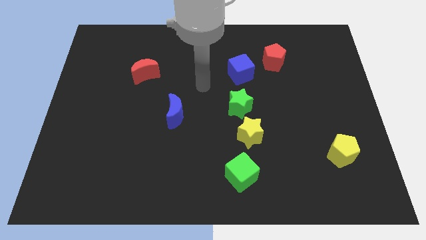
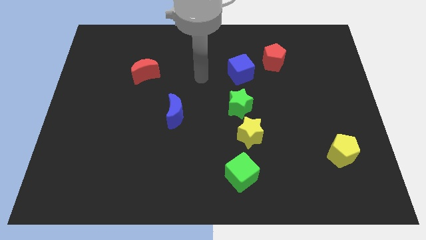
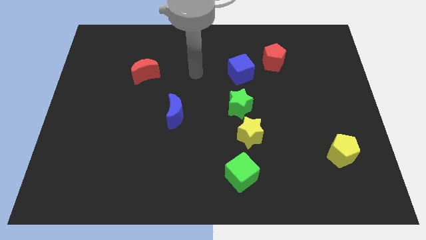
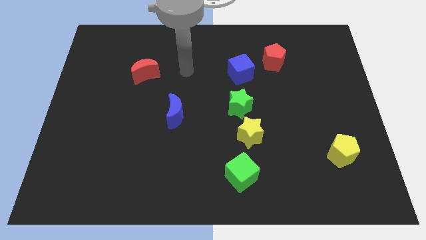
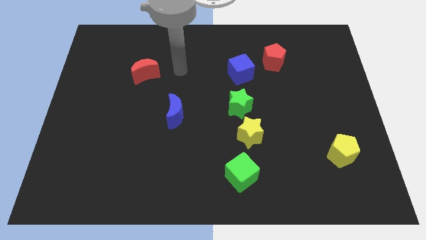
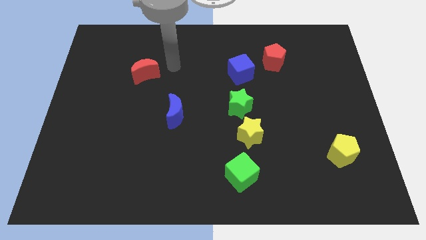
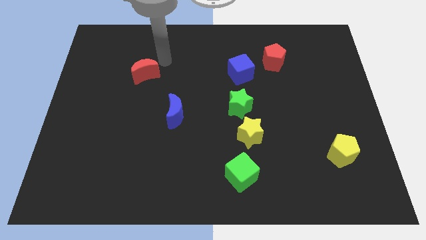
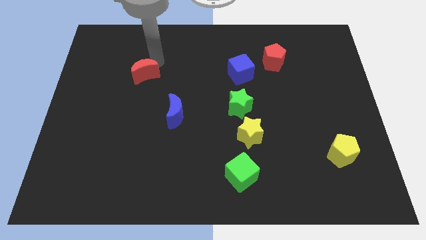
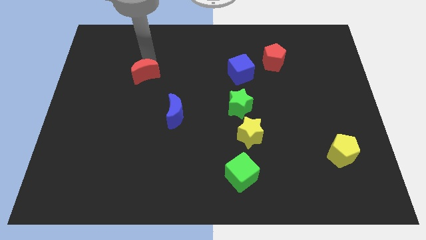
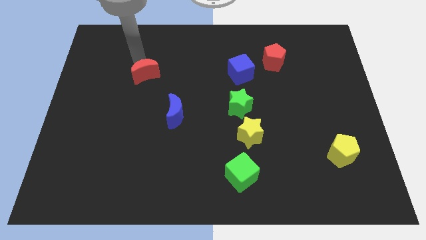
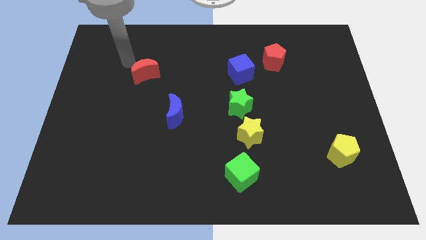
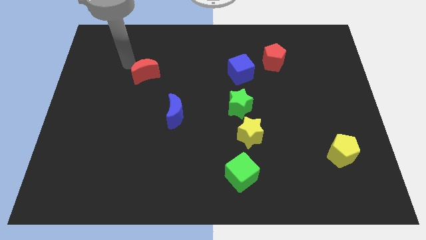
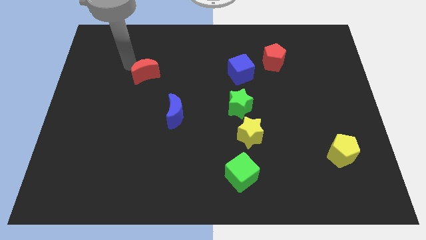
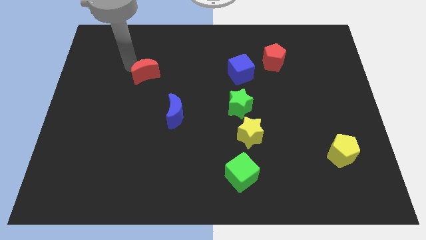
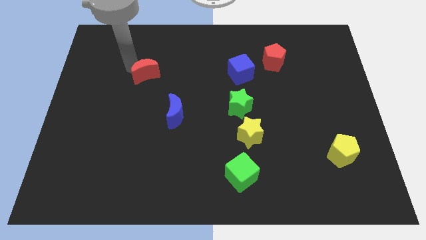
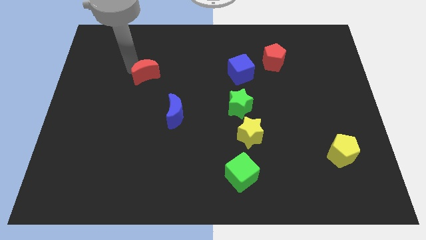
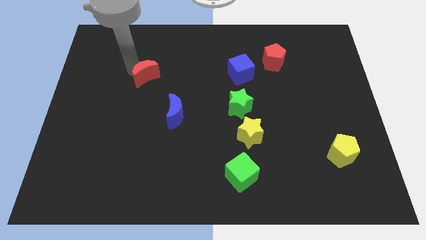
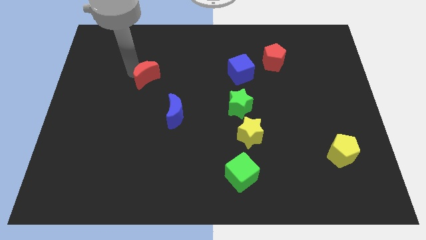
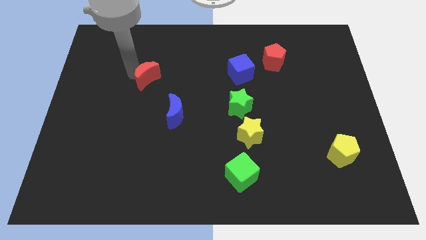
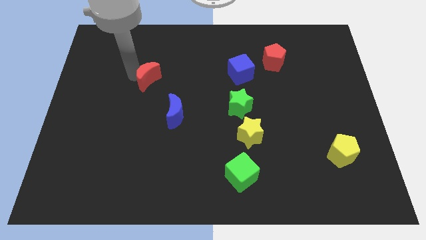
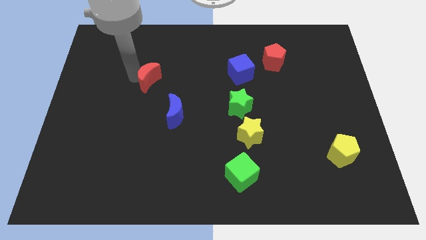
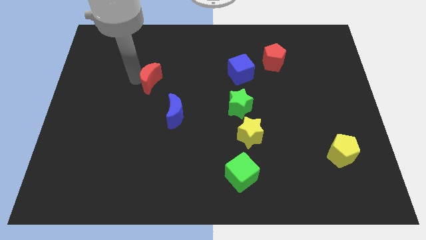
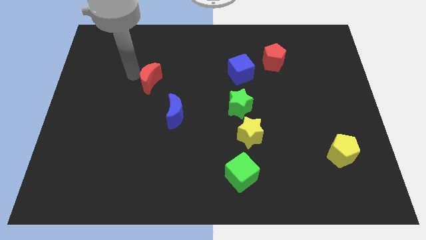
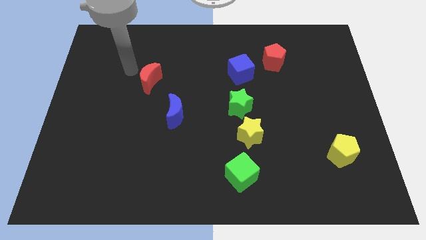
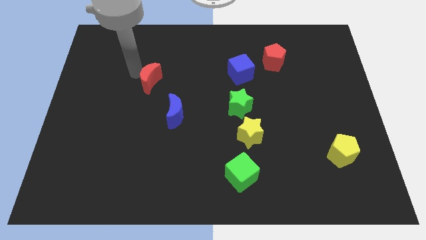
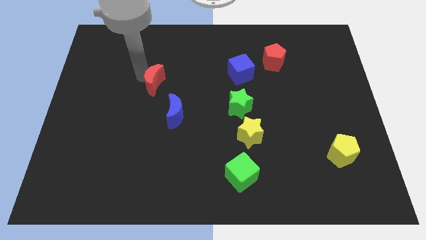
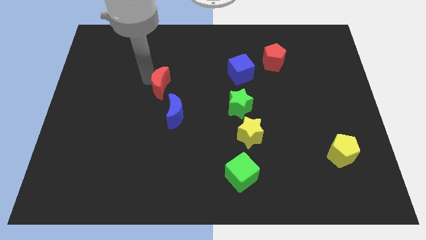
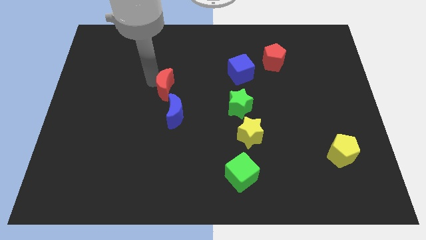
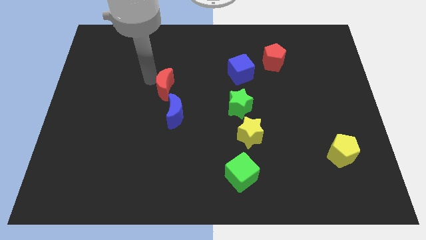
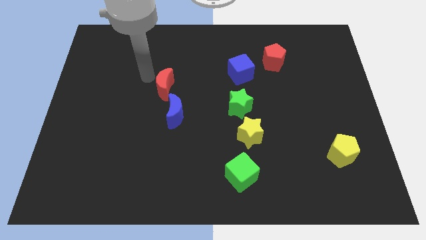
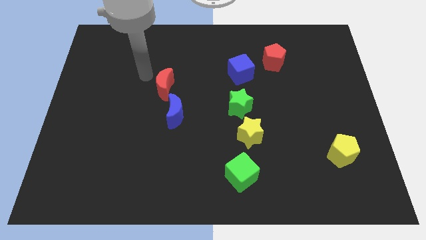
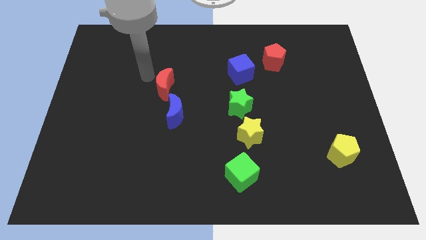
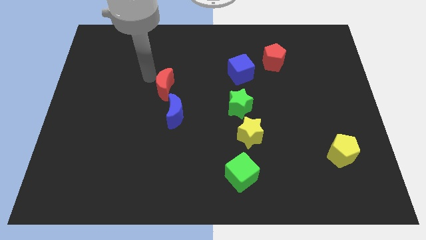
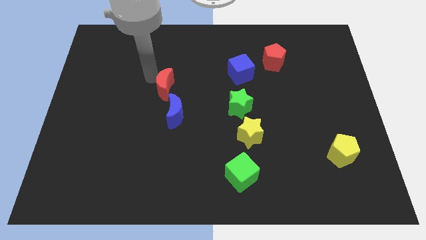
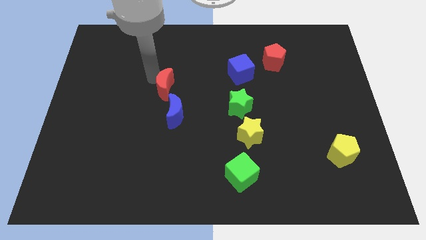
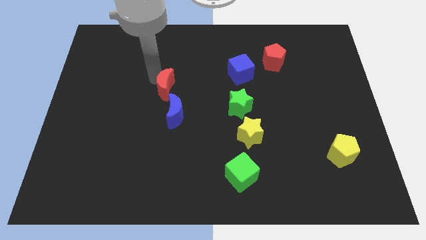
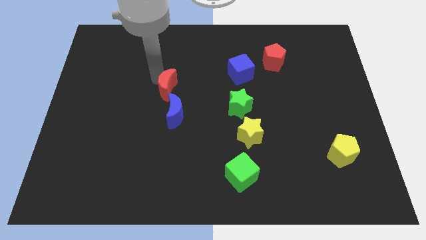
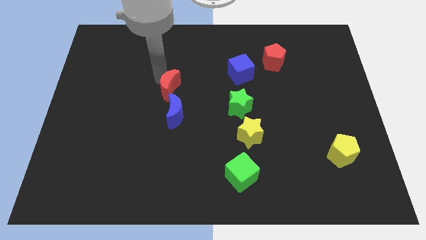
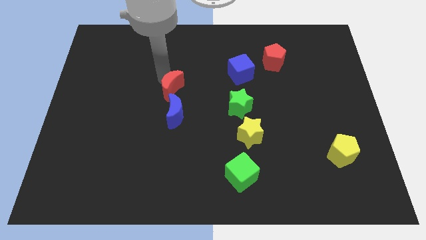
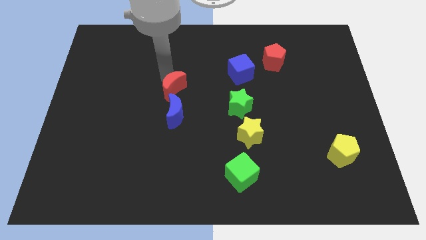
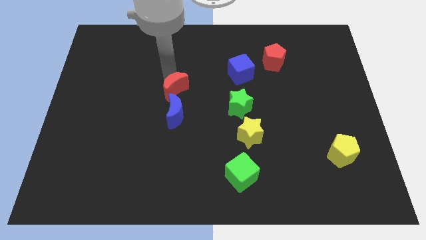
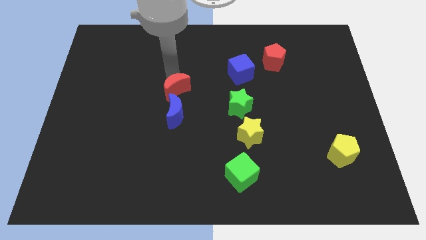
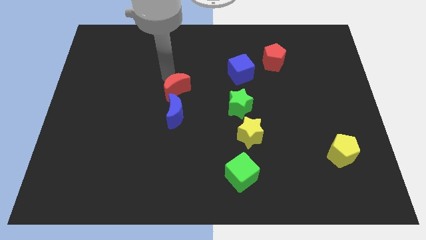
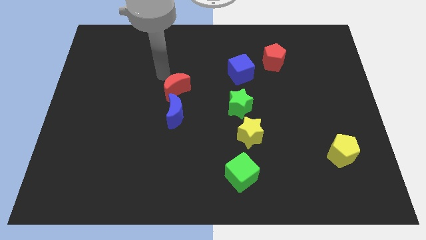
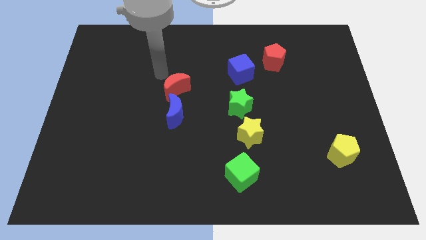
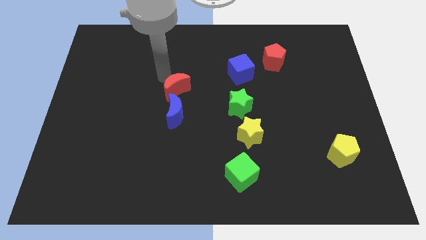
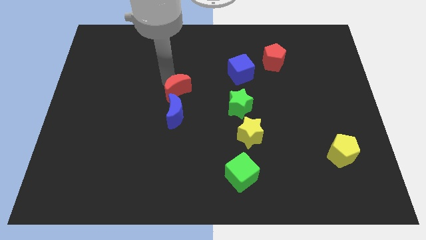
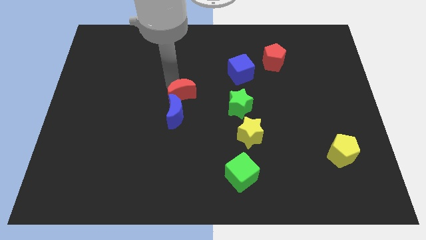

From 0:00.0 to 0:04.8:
move the red moon to the left of the green star

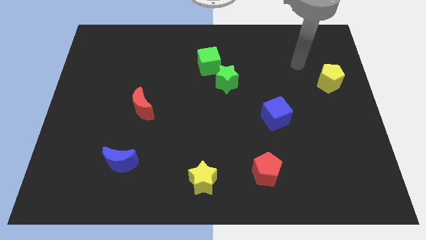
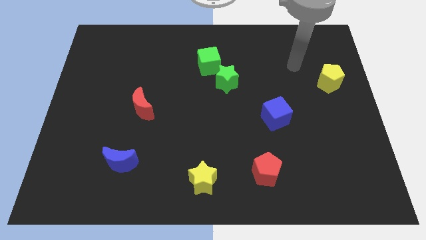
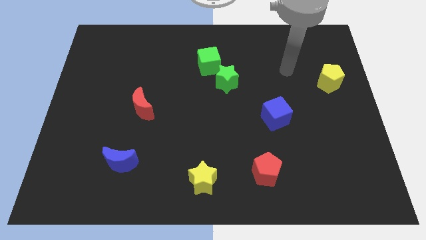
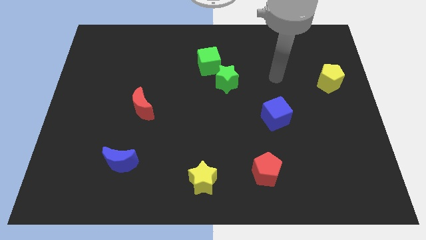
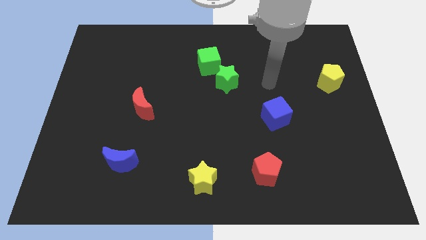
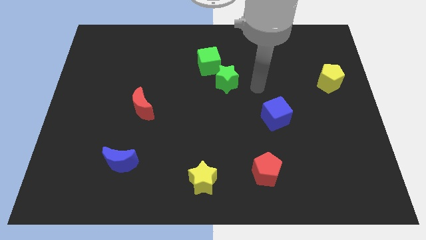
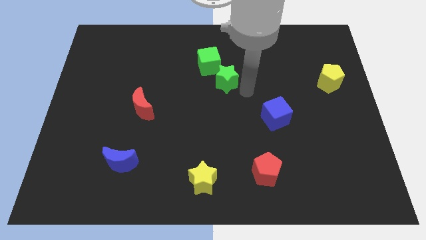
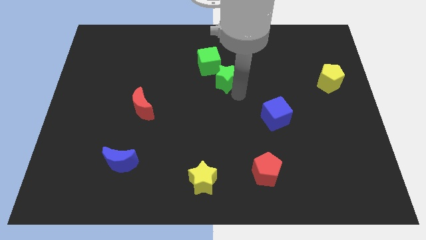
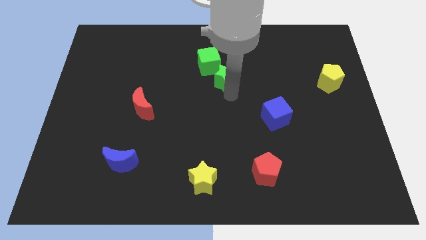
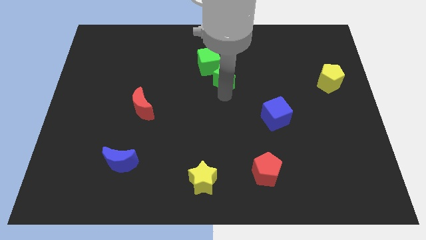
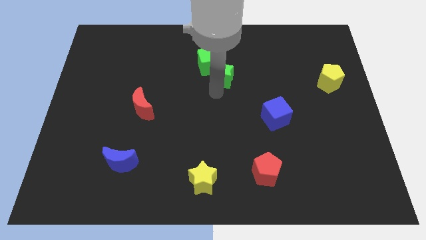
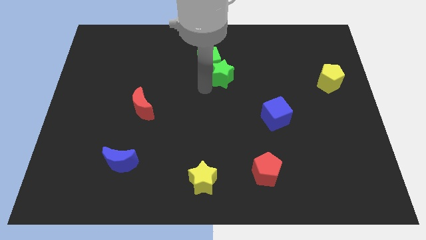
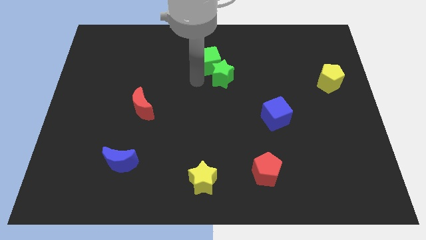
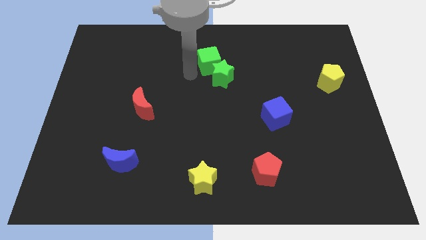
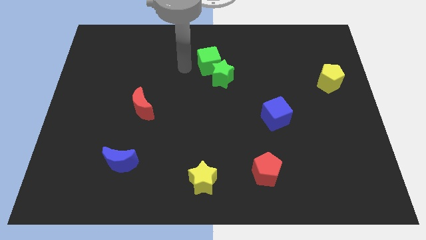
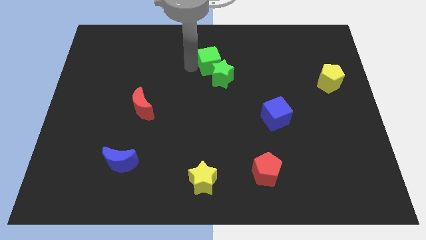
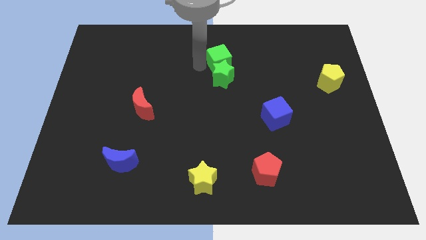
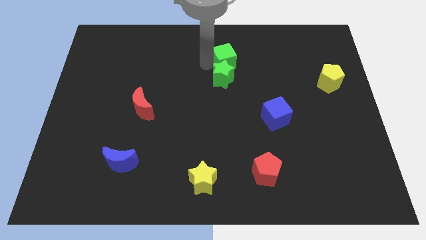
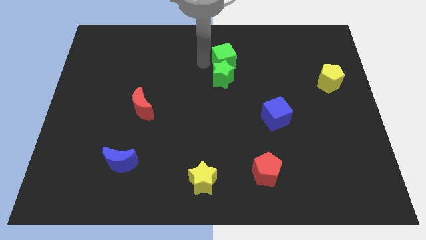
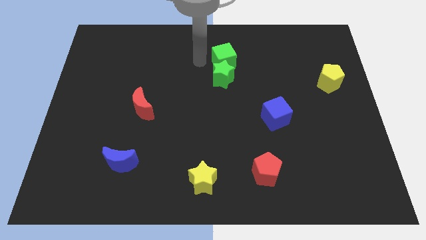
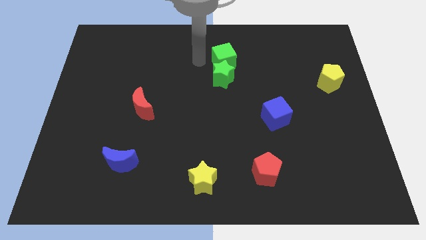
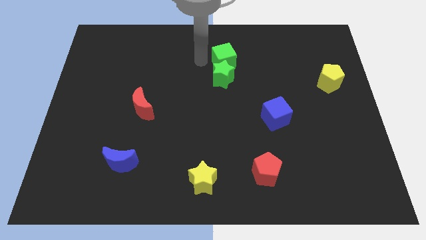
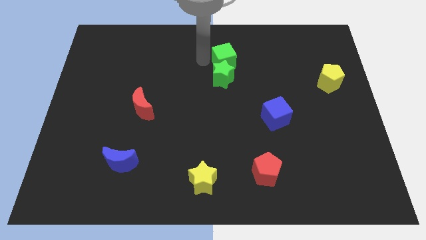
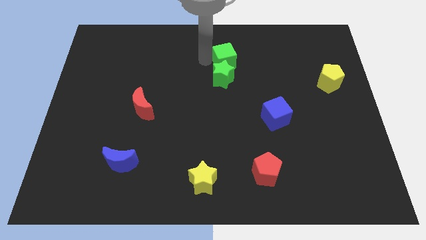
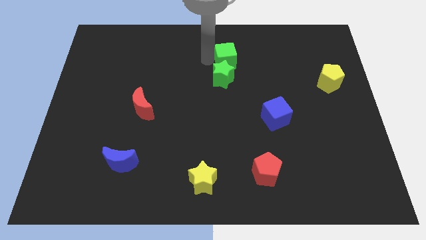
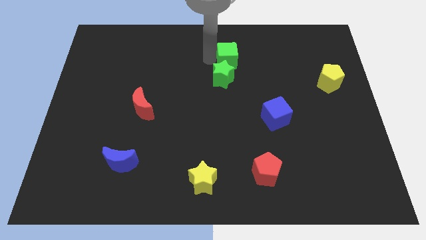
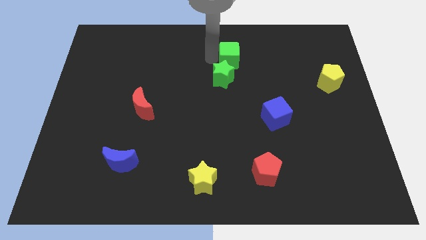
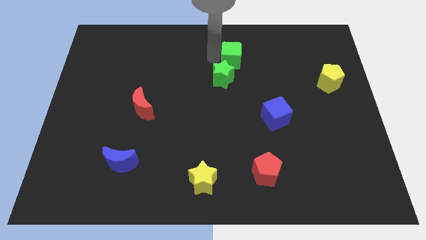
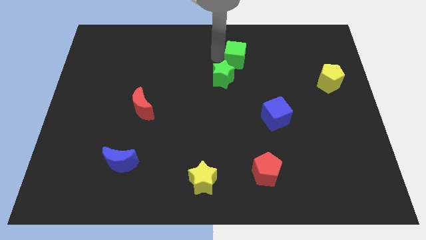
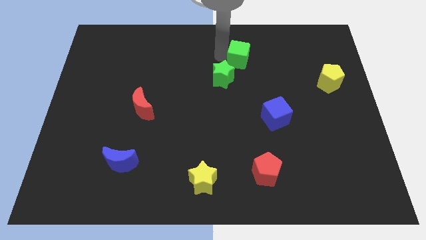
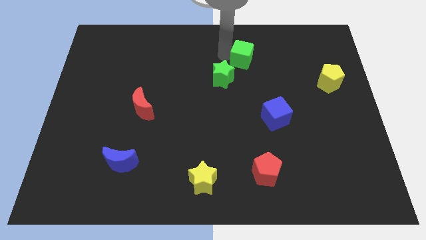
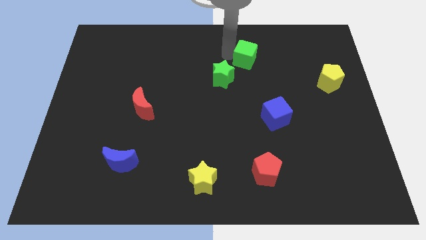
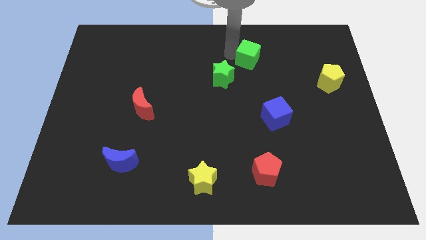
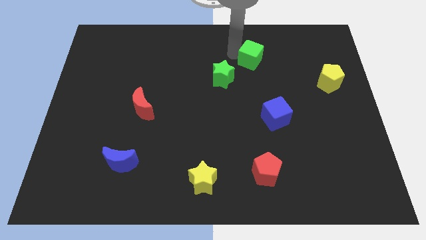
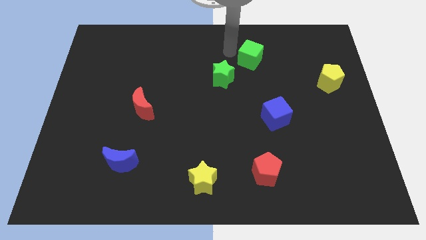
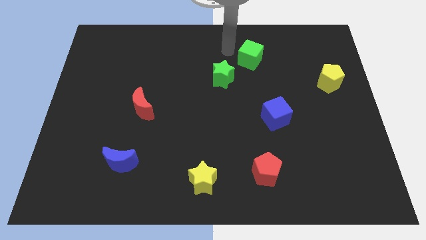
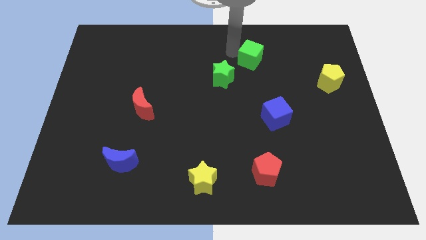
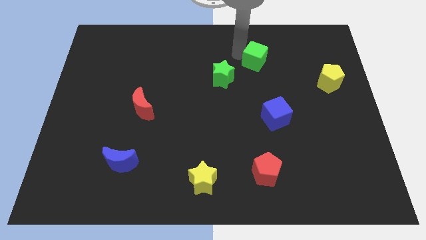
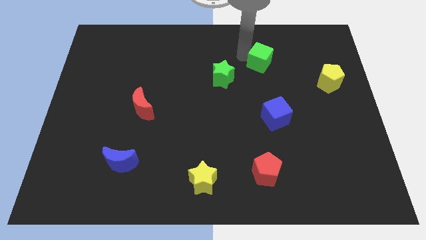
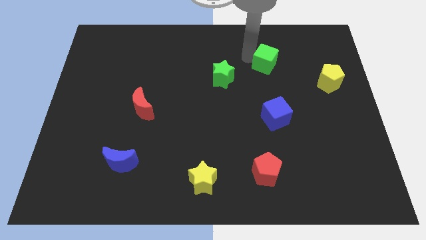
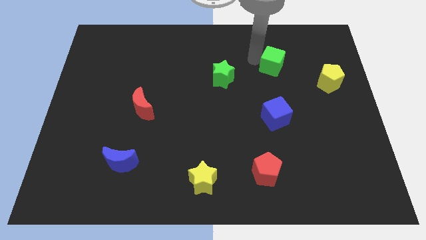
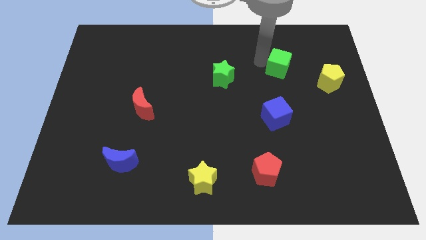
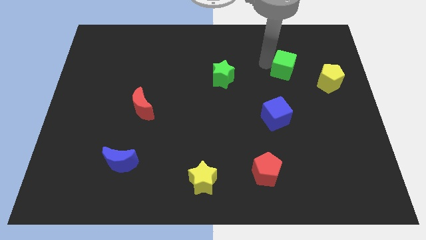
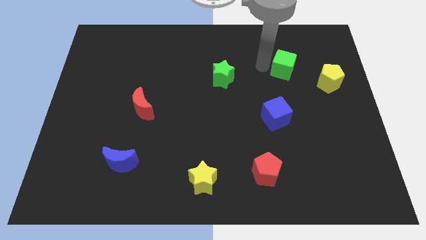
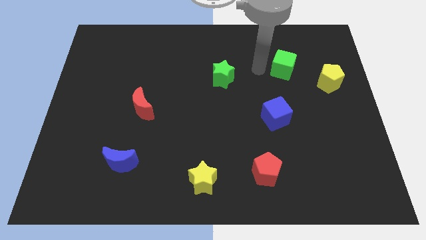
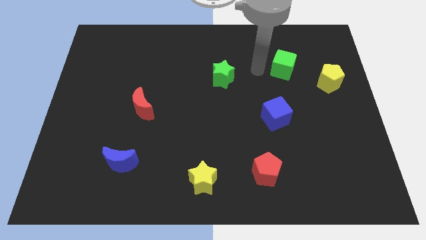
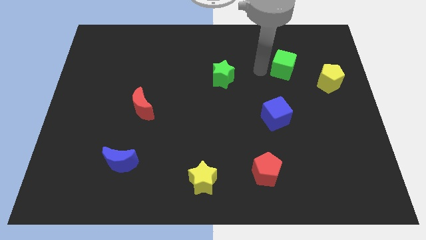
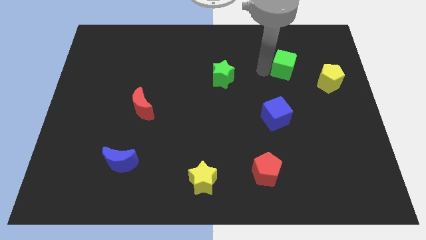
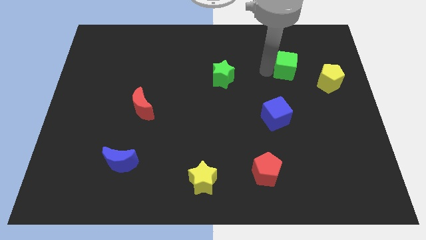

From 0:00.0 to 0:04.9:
put the green cube diagonally up and to the left of the yellow pentagon
